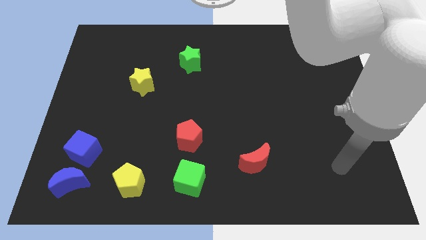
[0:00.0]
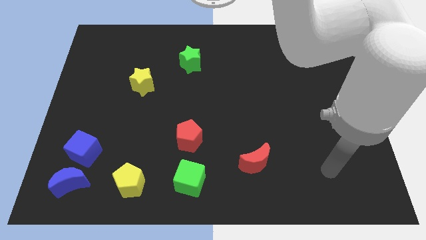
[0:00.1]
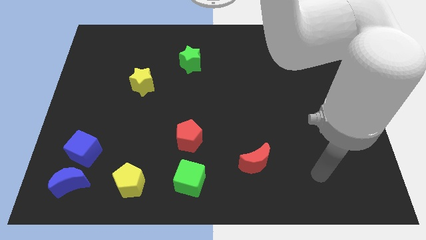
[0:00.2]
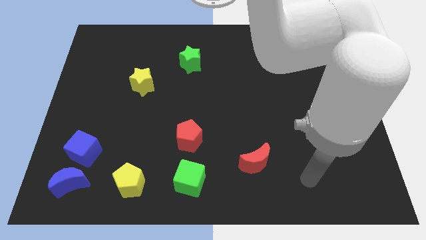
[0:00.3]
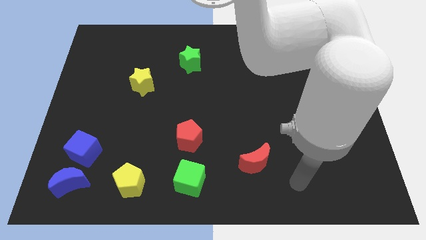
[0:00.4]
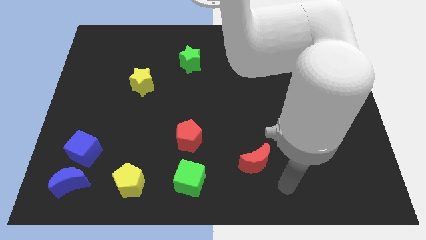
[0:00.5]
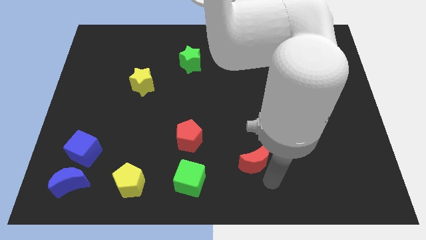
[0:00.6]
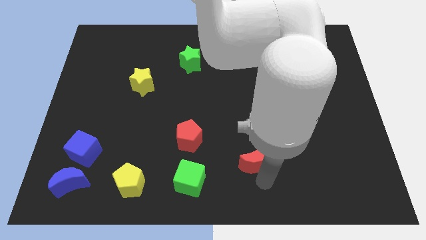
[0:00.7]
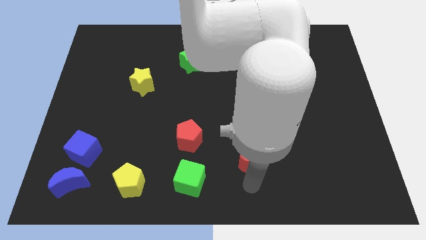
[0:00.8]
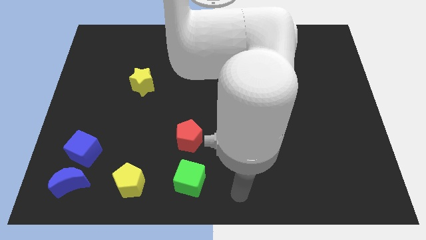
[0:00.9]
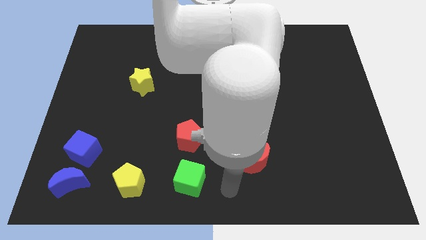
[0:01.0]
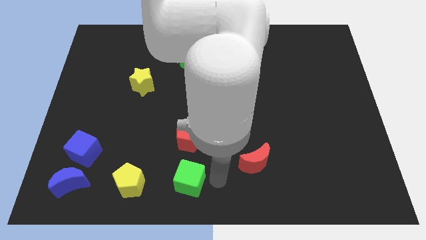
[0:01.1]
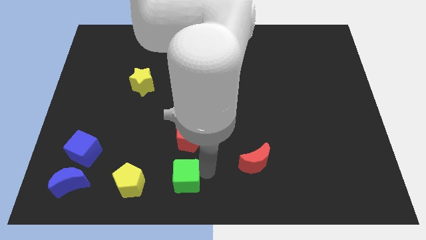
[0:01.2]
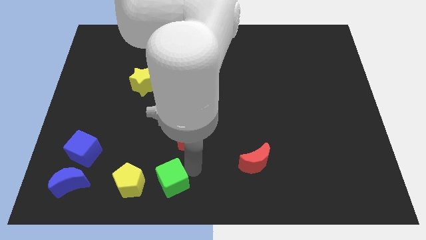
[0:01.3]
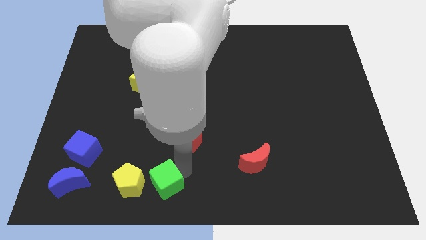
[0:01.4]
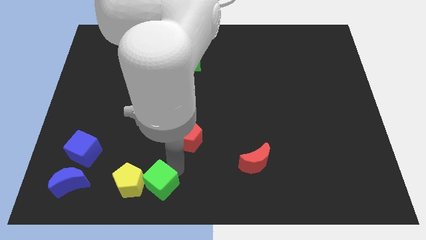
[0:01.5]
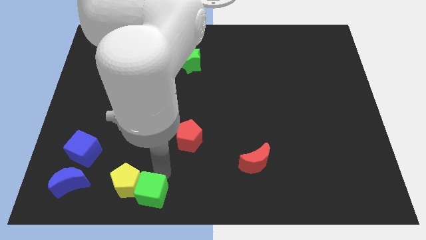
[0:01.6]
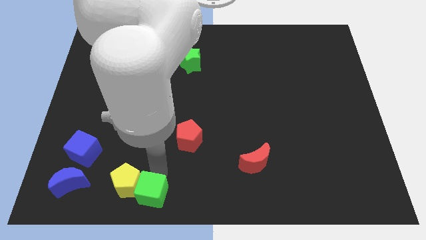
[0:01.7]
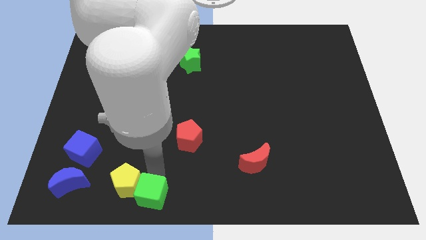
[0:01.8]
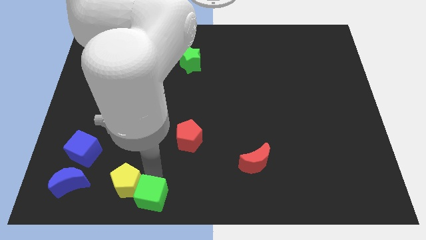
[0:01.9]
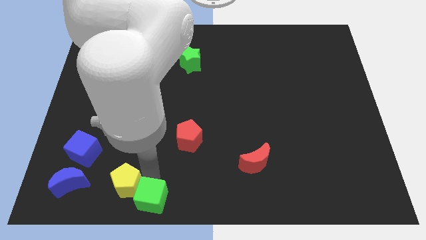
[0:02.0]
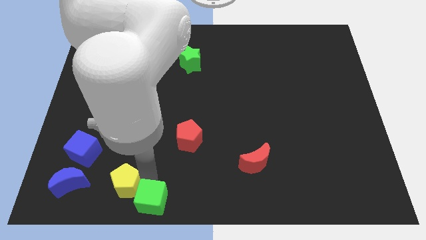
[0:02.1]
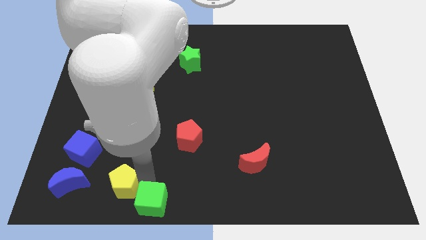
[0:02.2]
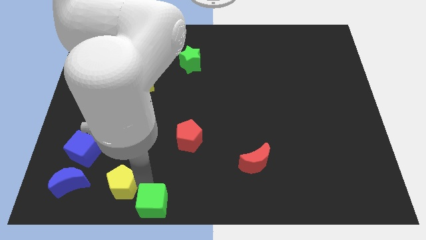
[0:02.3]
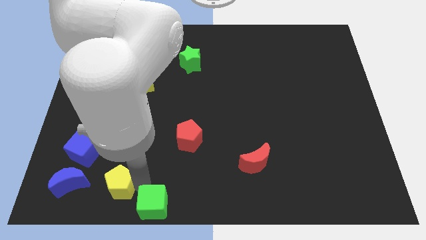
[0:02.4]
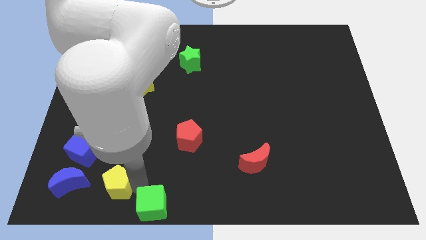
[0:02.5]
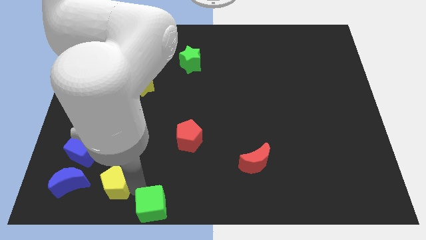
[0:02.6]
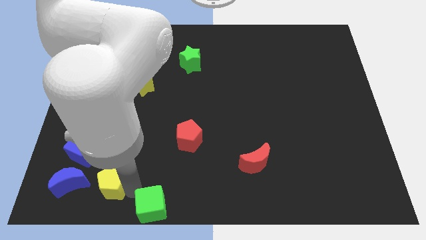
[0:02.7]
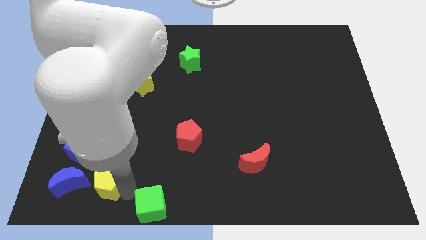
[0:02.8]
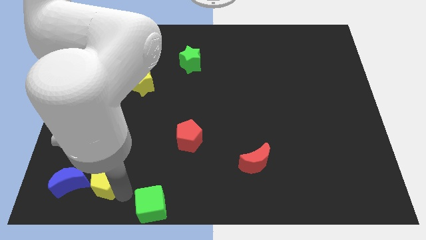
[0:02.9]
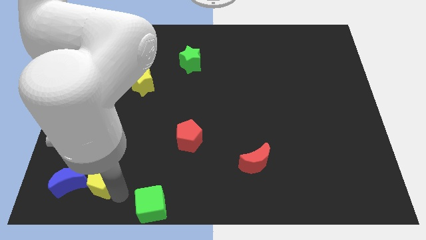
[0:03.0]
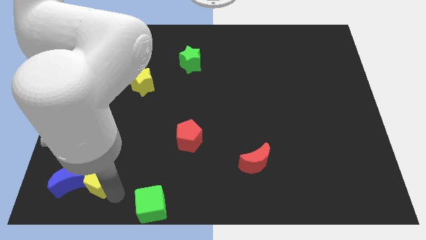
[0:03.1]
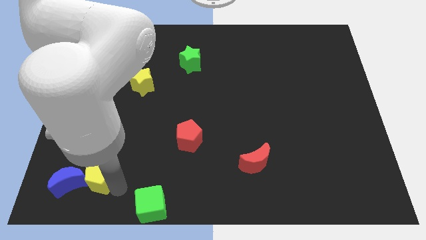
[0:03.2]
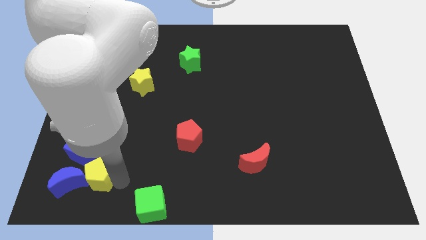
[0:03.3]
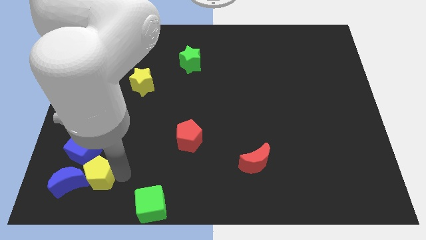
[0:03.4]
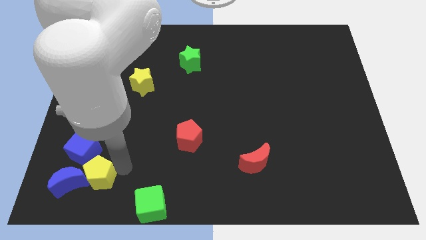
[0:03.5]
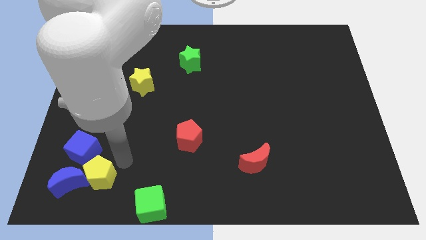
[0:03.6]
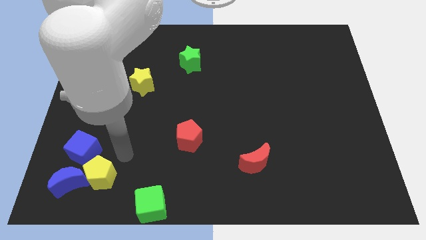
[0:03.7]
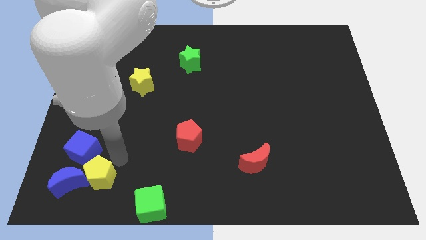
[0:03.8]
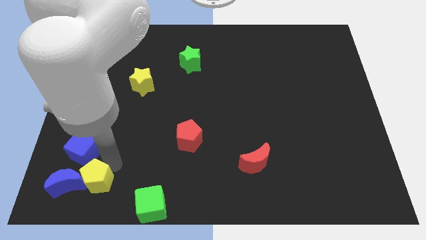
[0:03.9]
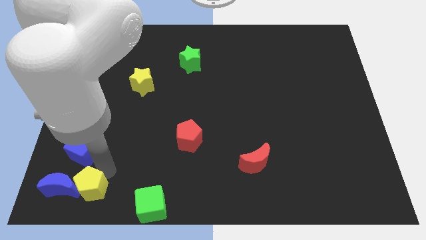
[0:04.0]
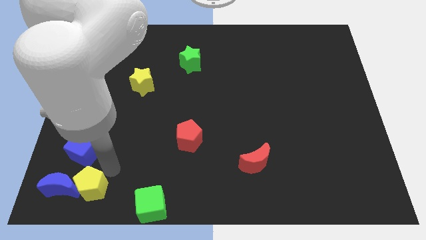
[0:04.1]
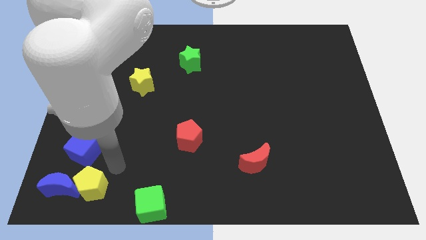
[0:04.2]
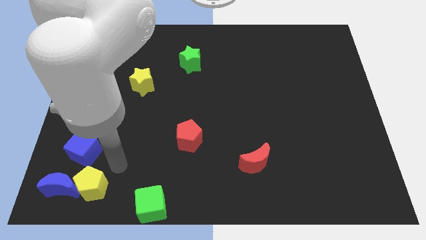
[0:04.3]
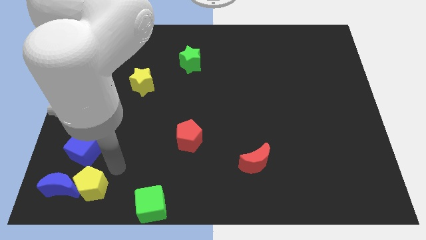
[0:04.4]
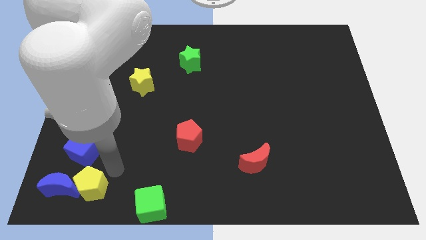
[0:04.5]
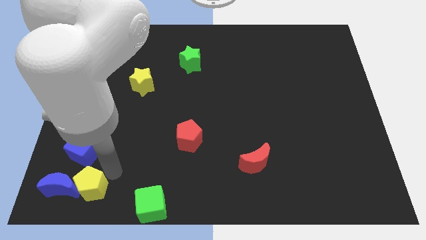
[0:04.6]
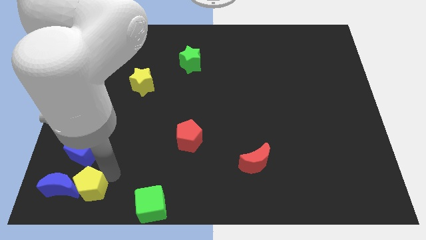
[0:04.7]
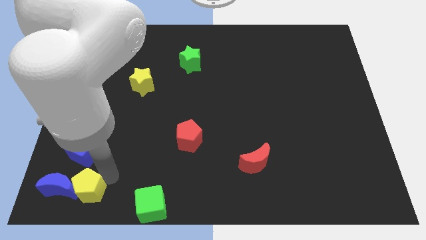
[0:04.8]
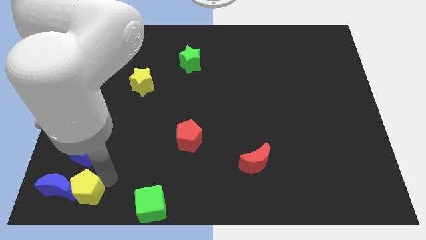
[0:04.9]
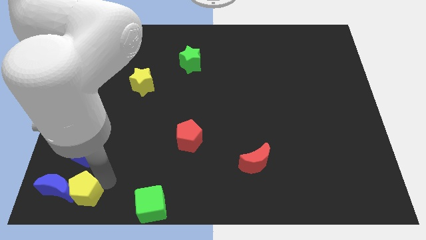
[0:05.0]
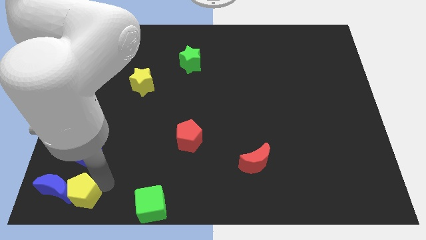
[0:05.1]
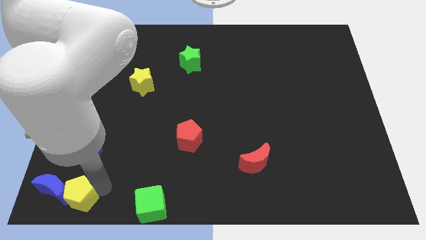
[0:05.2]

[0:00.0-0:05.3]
slide the yellow pentagon to the bottom left

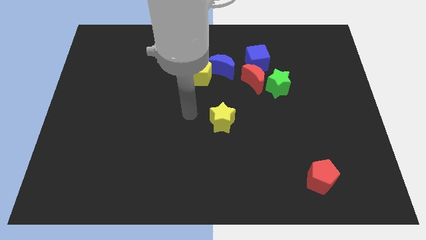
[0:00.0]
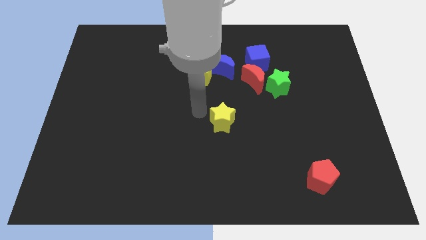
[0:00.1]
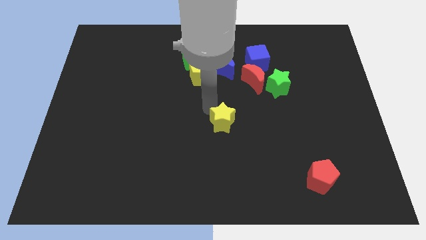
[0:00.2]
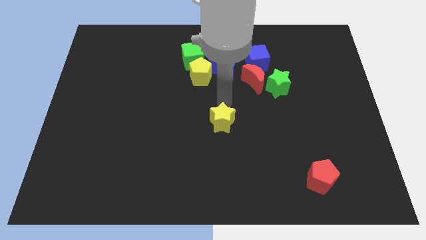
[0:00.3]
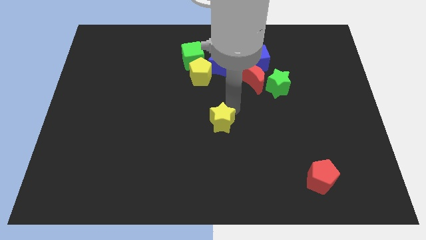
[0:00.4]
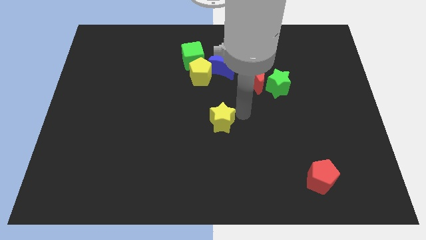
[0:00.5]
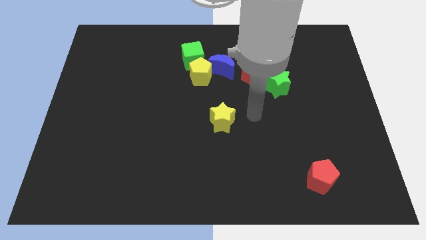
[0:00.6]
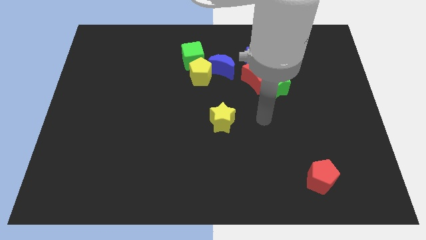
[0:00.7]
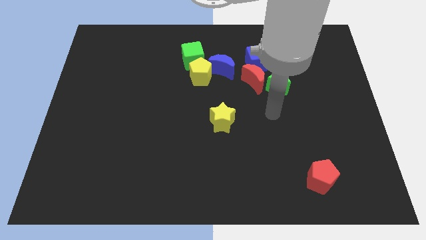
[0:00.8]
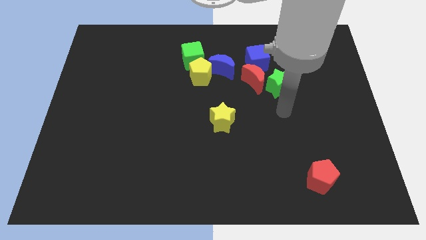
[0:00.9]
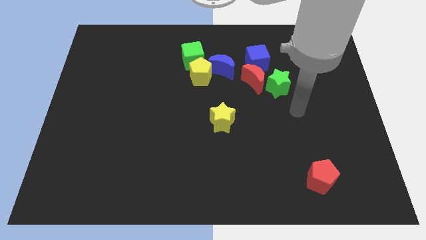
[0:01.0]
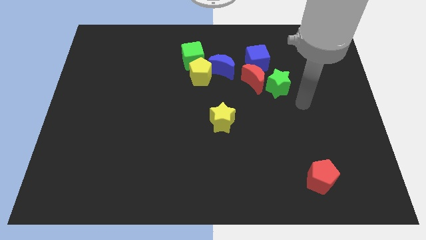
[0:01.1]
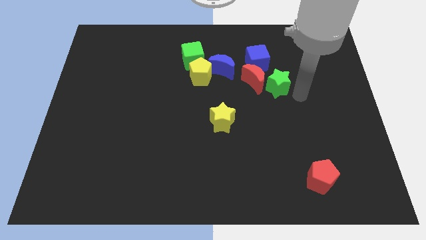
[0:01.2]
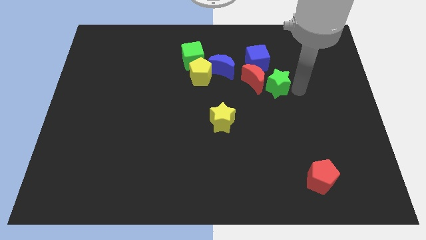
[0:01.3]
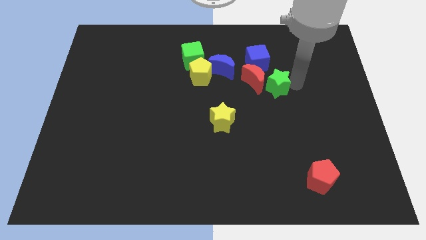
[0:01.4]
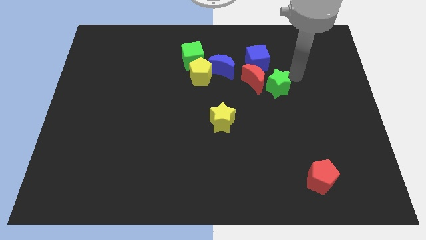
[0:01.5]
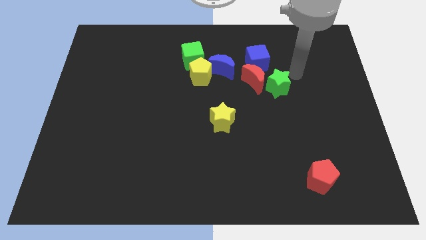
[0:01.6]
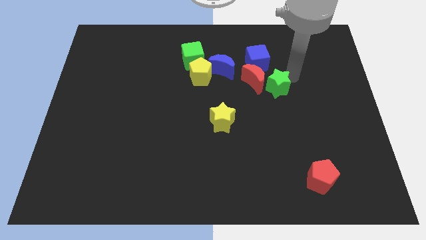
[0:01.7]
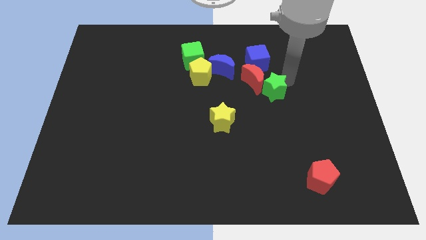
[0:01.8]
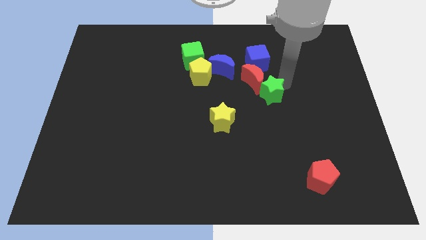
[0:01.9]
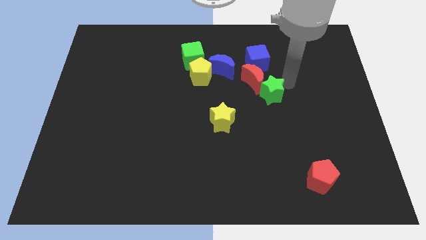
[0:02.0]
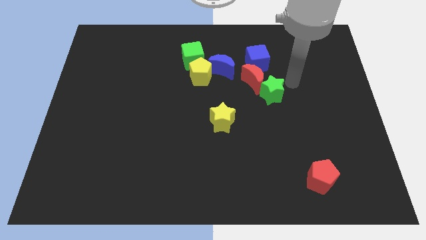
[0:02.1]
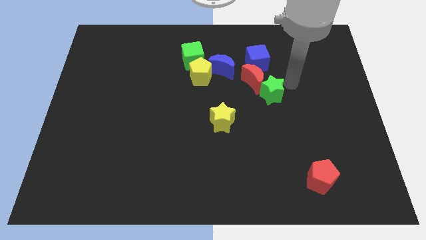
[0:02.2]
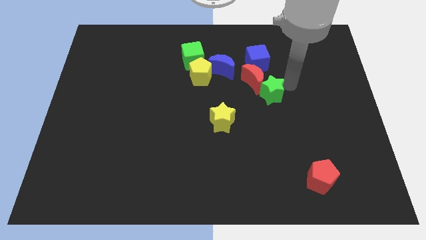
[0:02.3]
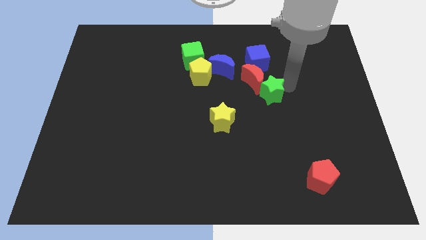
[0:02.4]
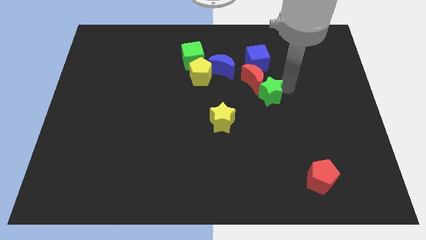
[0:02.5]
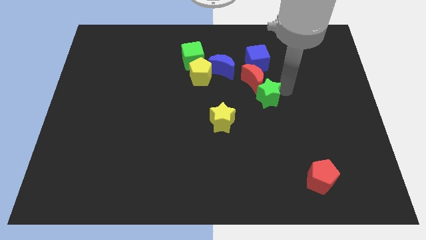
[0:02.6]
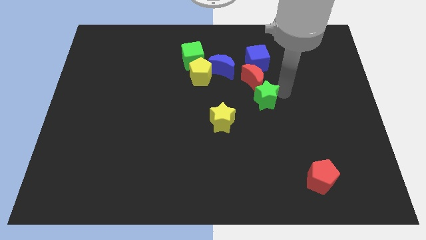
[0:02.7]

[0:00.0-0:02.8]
move the green star to the center of the board
